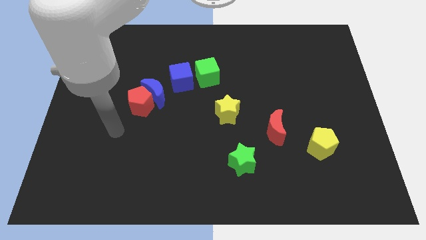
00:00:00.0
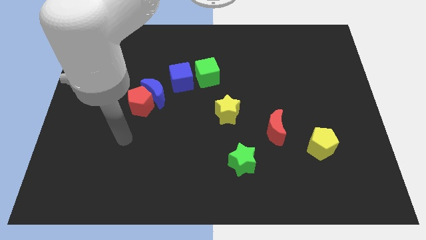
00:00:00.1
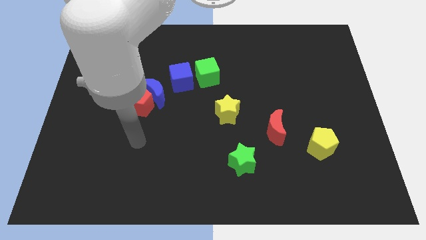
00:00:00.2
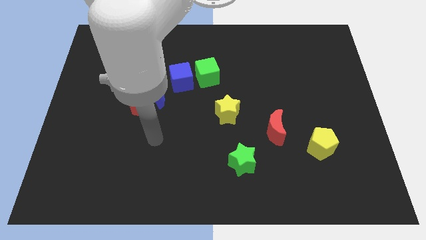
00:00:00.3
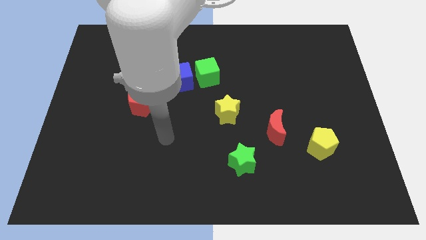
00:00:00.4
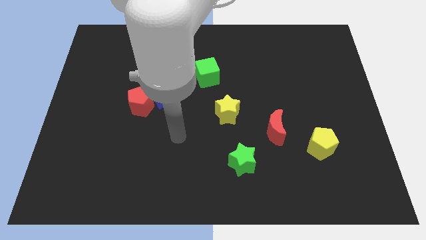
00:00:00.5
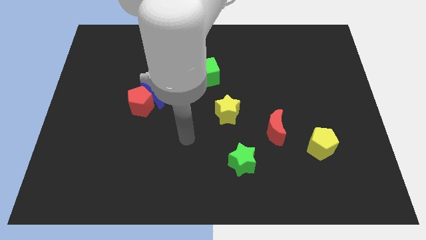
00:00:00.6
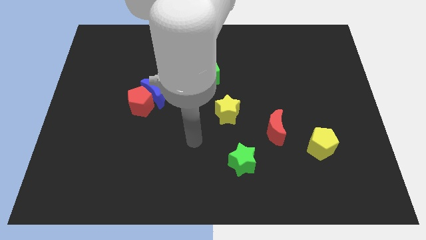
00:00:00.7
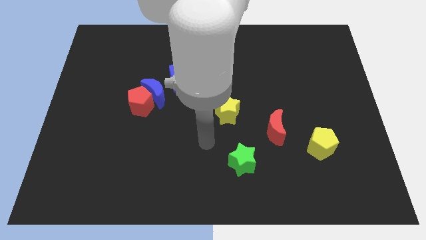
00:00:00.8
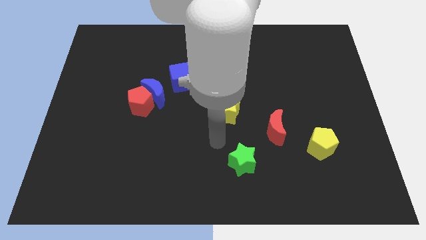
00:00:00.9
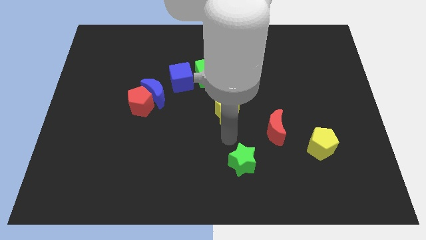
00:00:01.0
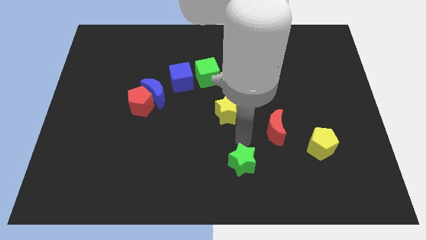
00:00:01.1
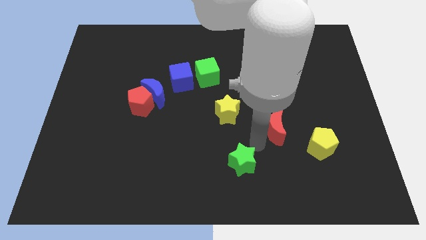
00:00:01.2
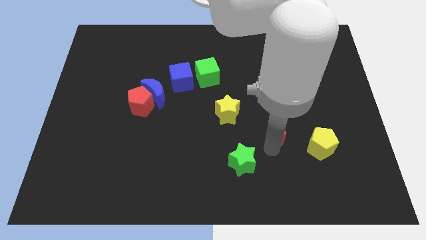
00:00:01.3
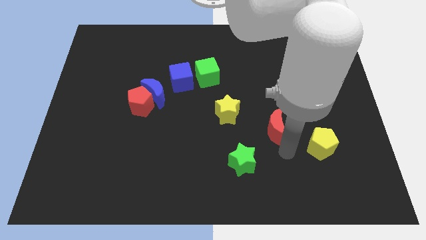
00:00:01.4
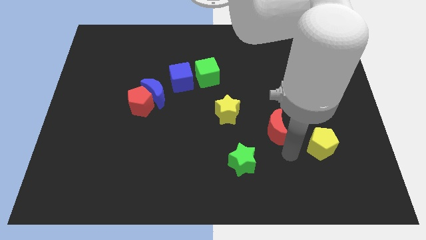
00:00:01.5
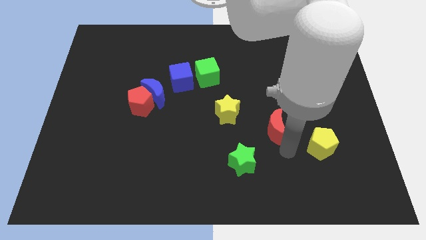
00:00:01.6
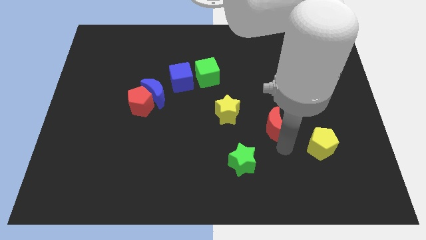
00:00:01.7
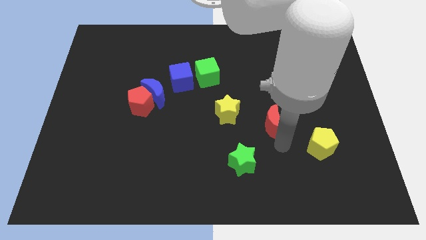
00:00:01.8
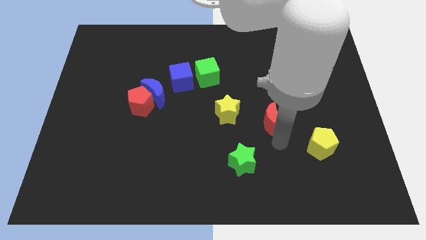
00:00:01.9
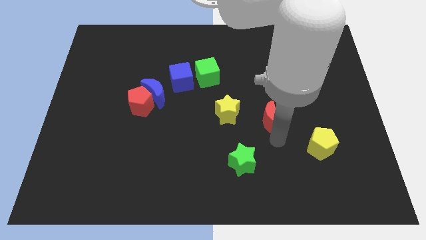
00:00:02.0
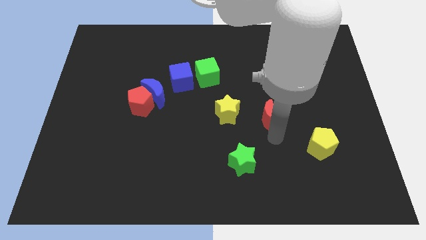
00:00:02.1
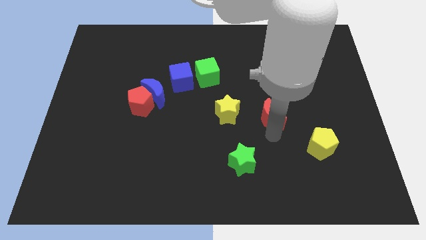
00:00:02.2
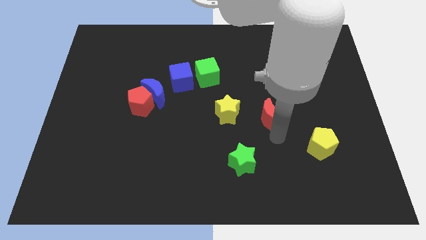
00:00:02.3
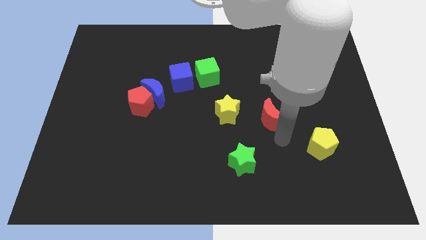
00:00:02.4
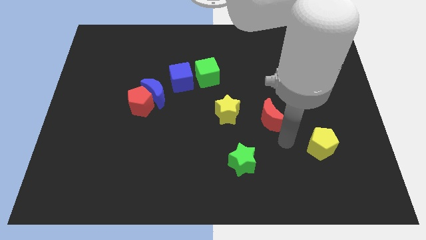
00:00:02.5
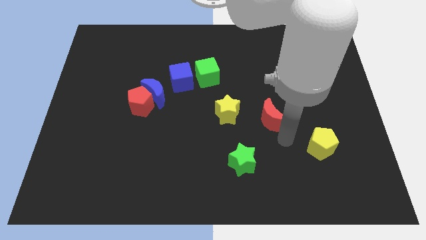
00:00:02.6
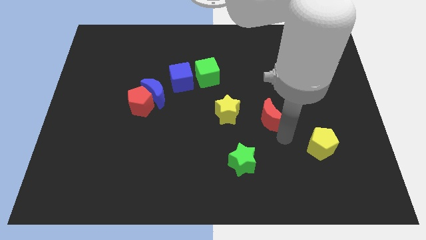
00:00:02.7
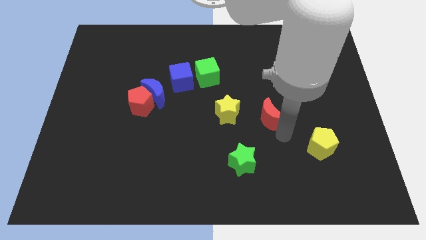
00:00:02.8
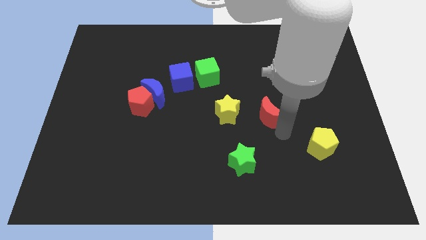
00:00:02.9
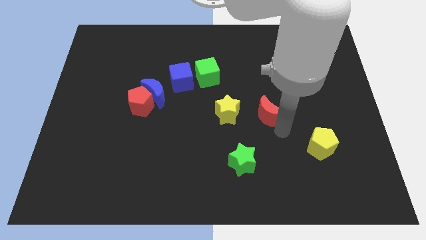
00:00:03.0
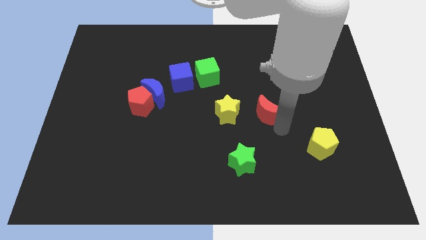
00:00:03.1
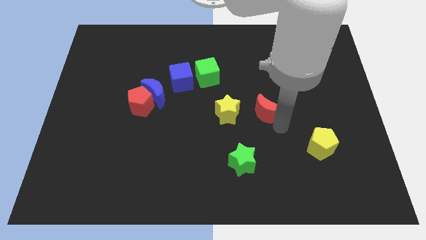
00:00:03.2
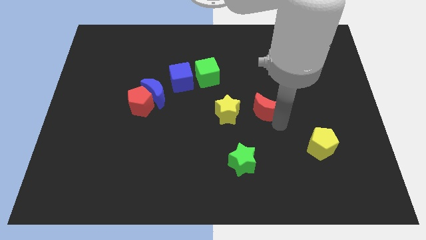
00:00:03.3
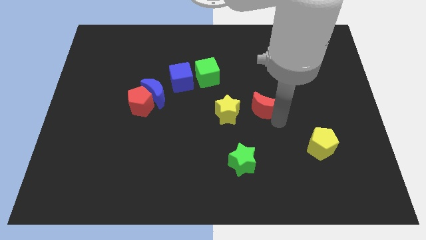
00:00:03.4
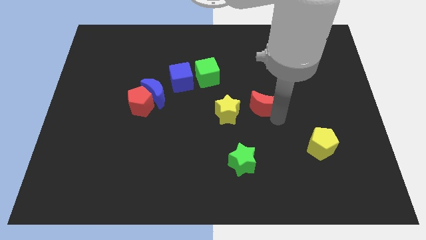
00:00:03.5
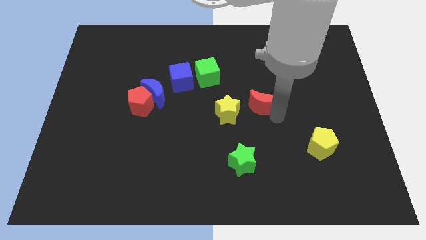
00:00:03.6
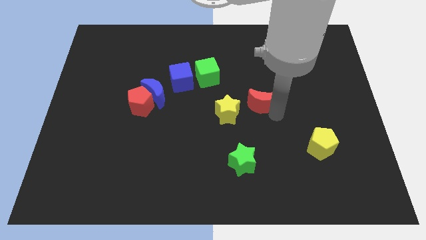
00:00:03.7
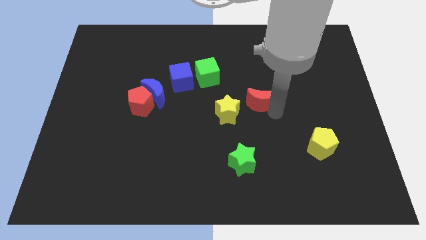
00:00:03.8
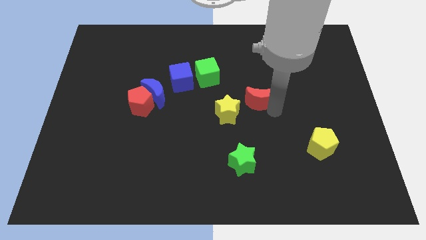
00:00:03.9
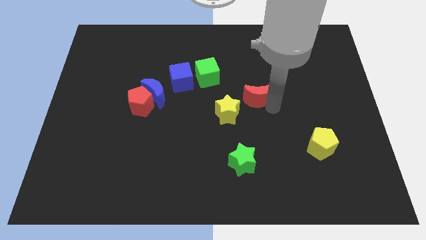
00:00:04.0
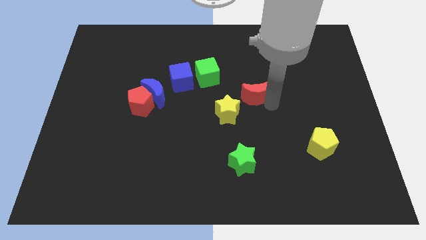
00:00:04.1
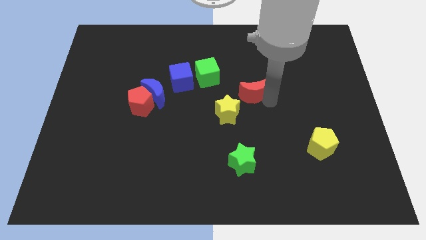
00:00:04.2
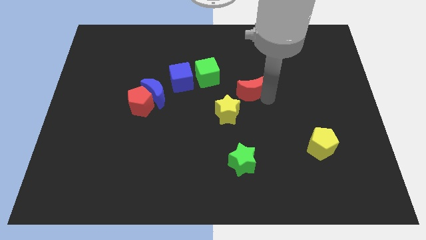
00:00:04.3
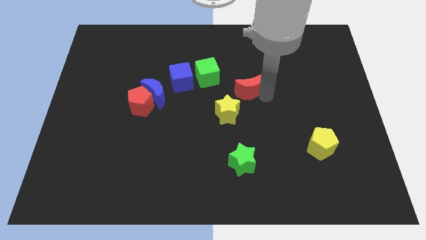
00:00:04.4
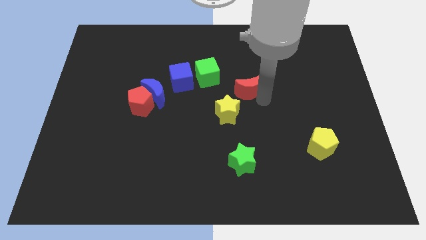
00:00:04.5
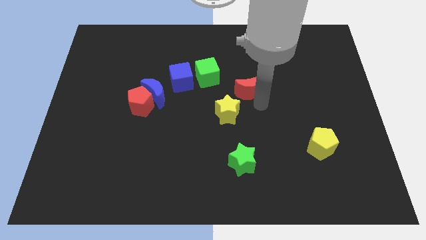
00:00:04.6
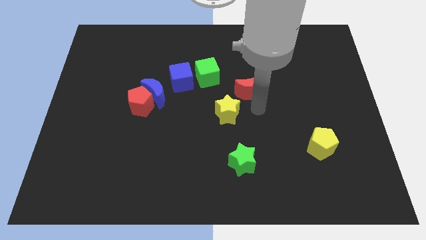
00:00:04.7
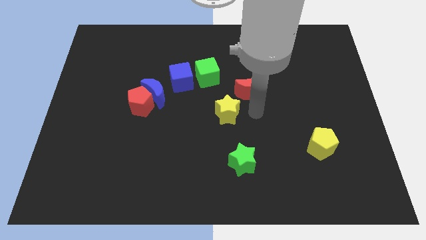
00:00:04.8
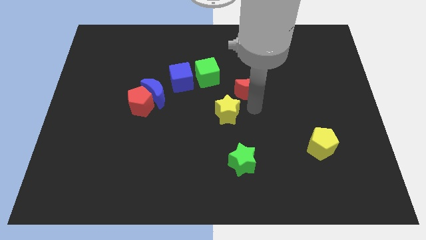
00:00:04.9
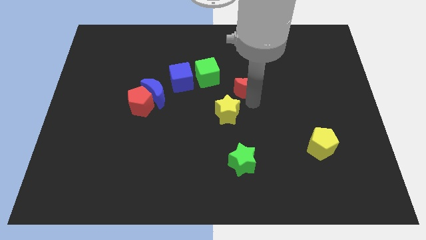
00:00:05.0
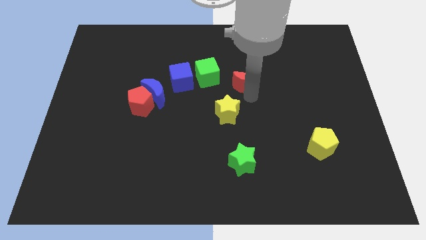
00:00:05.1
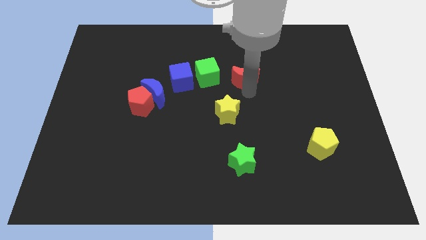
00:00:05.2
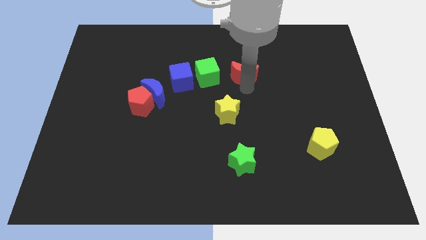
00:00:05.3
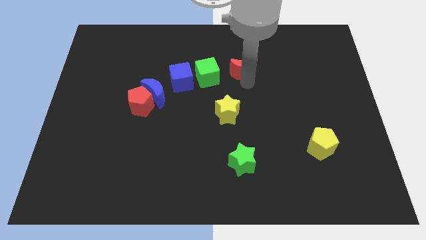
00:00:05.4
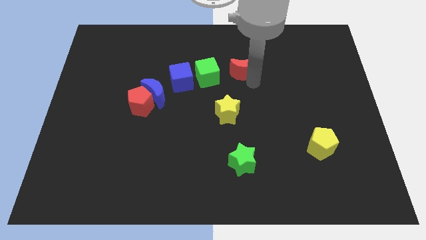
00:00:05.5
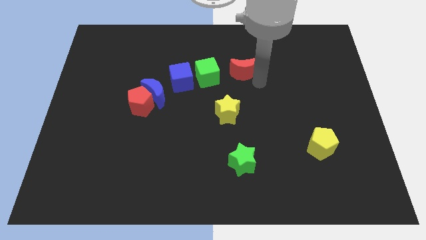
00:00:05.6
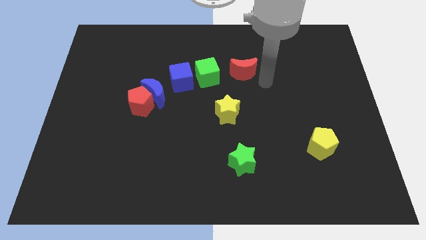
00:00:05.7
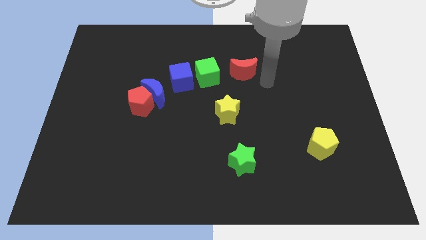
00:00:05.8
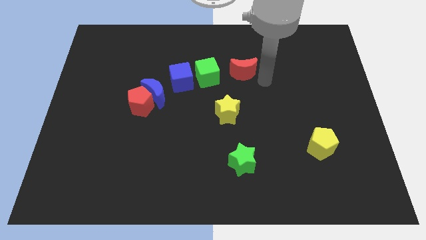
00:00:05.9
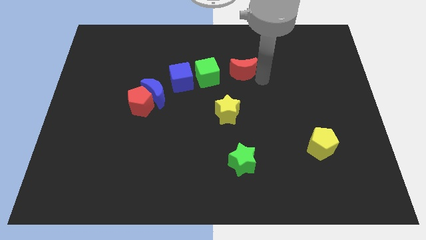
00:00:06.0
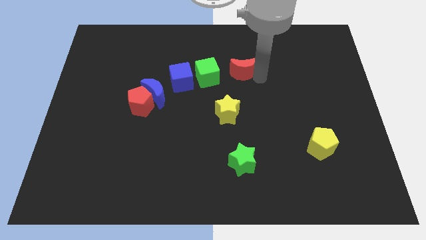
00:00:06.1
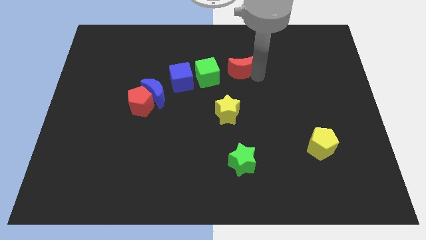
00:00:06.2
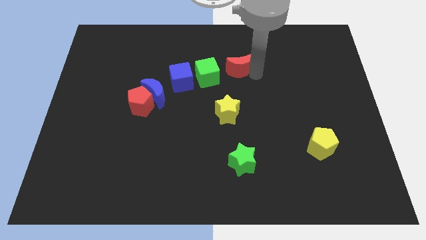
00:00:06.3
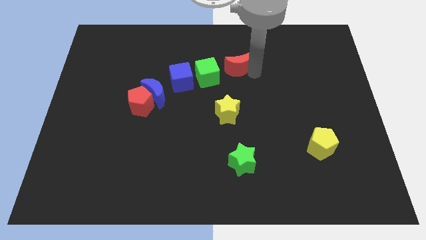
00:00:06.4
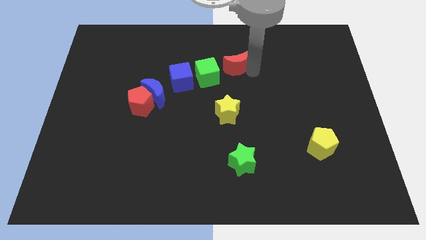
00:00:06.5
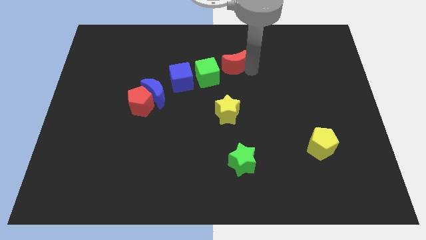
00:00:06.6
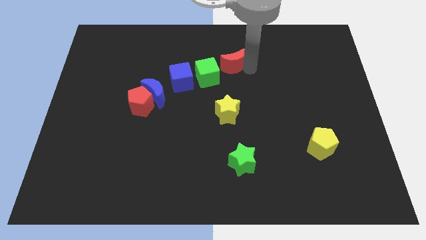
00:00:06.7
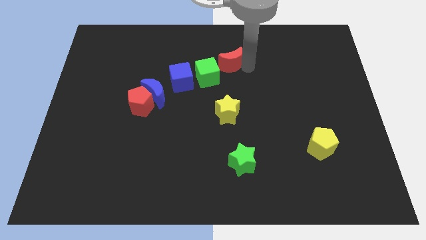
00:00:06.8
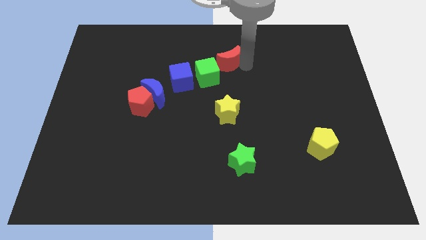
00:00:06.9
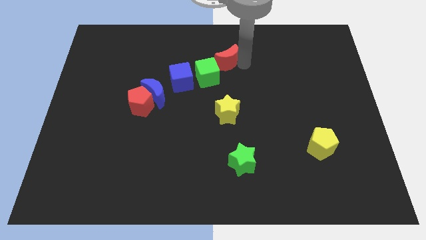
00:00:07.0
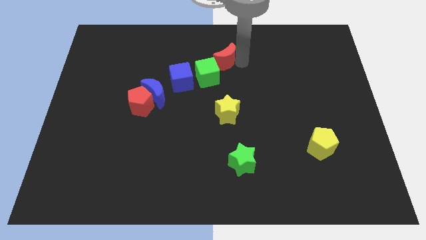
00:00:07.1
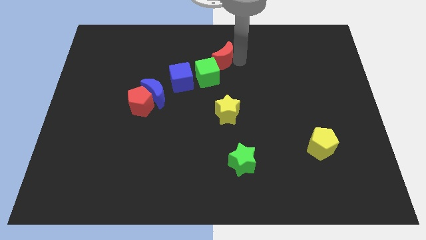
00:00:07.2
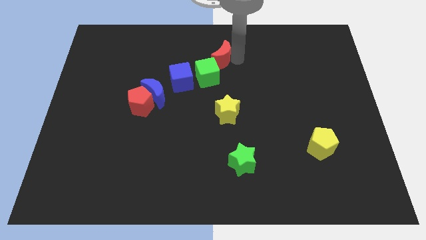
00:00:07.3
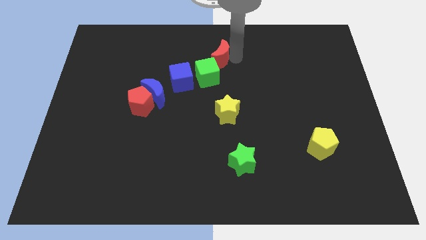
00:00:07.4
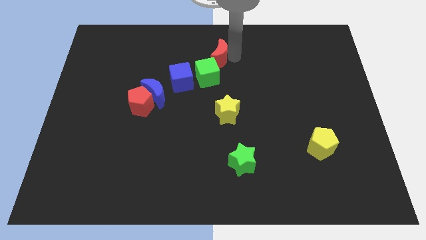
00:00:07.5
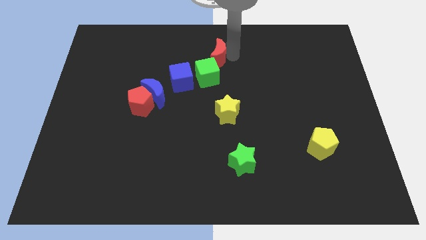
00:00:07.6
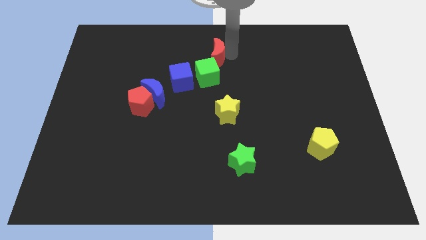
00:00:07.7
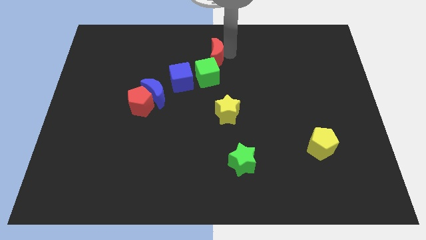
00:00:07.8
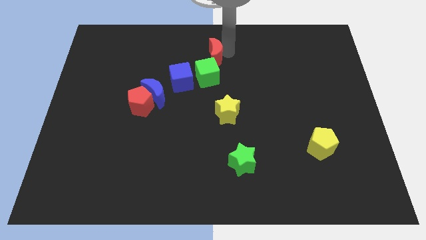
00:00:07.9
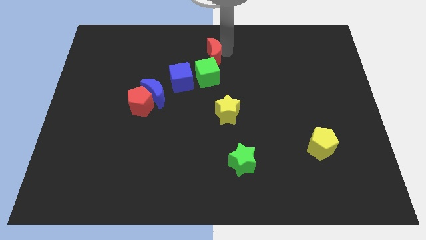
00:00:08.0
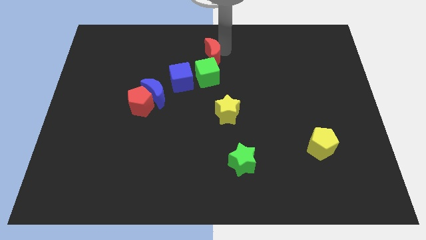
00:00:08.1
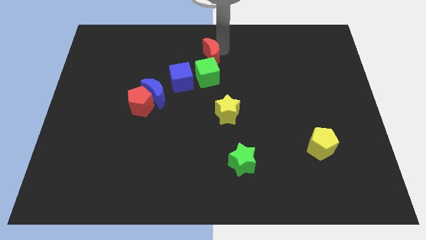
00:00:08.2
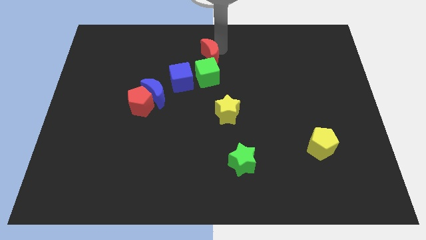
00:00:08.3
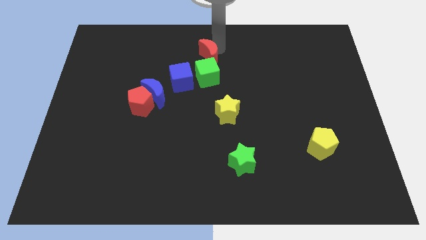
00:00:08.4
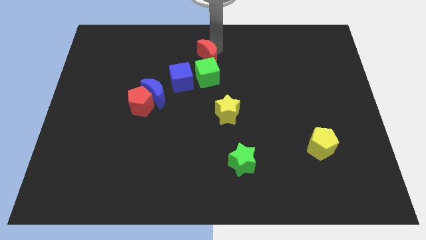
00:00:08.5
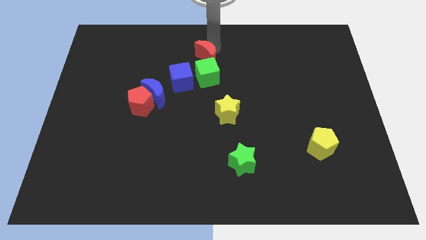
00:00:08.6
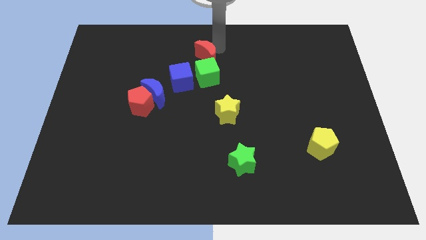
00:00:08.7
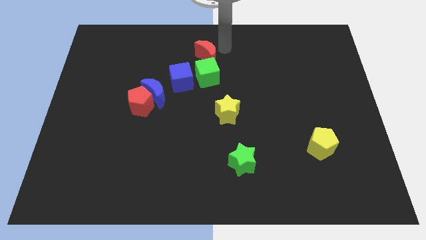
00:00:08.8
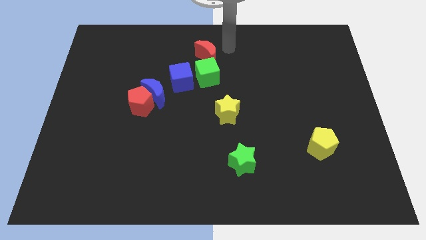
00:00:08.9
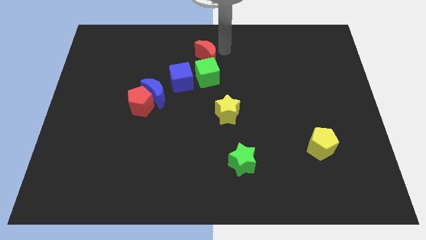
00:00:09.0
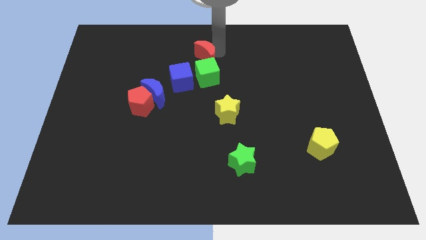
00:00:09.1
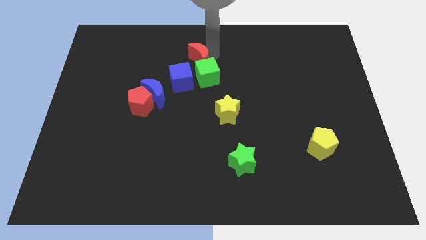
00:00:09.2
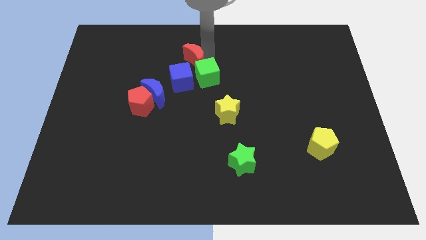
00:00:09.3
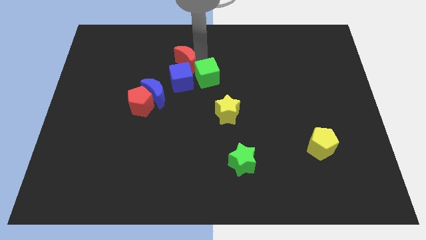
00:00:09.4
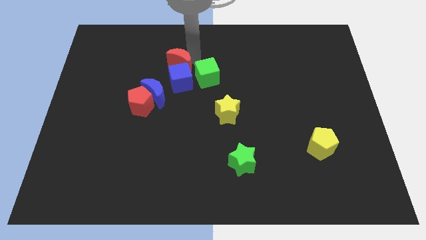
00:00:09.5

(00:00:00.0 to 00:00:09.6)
put the red moon just left of the green cube
